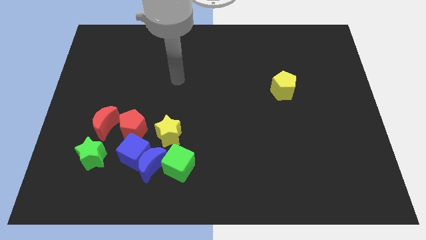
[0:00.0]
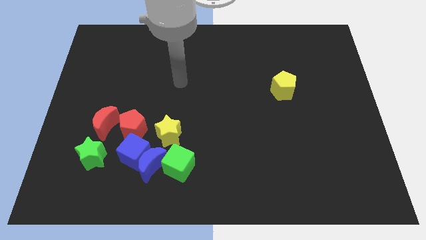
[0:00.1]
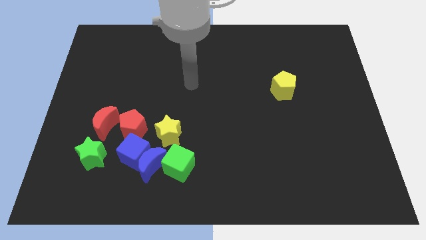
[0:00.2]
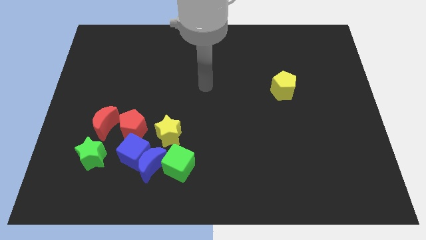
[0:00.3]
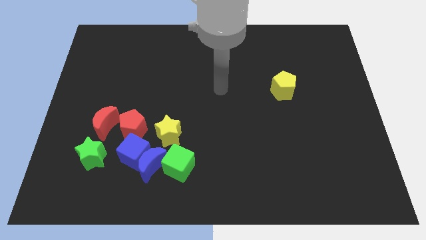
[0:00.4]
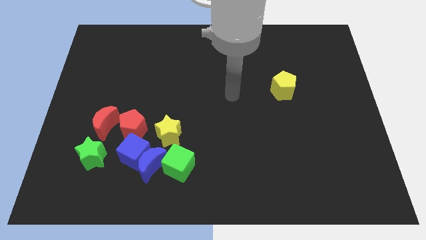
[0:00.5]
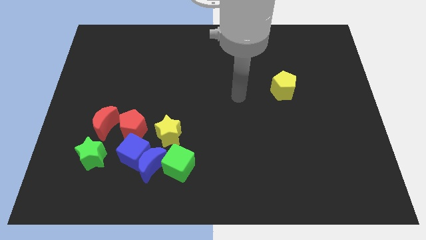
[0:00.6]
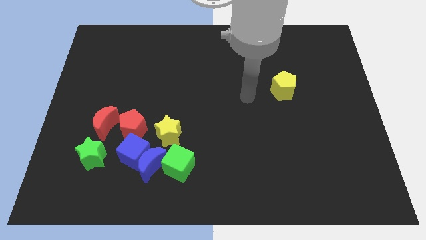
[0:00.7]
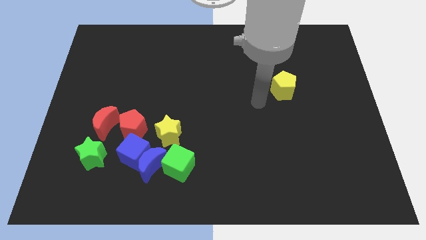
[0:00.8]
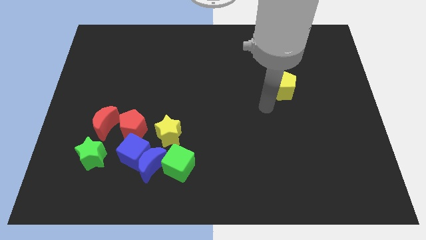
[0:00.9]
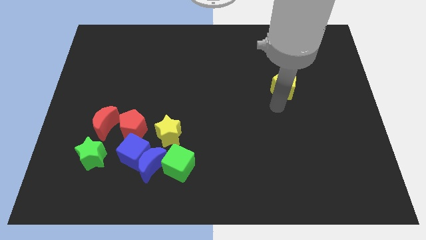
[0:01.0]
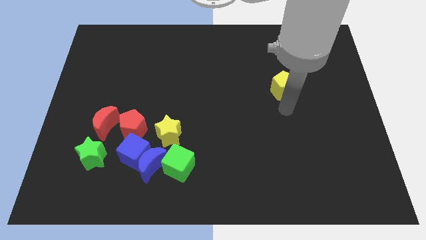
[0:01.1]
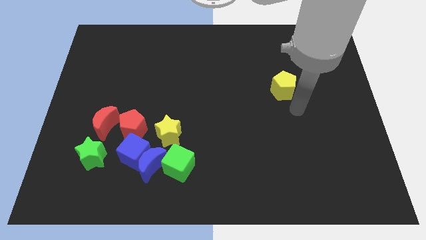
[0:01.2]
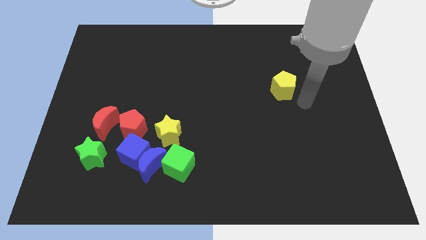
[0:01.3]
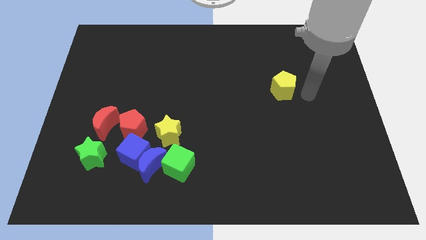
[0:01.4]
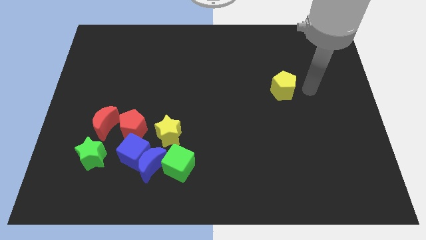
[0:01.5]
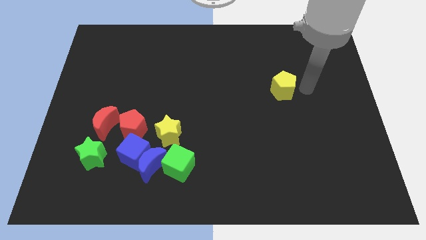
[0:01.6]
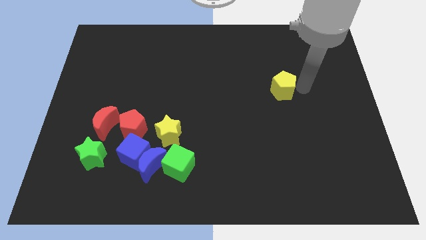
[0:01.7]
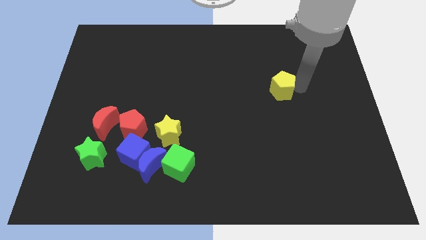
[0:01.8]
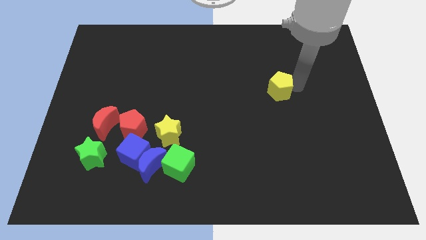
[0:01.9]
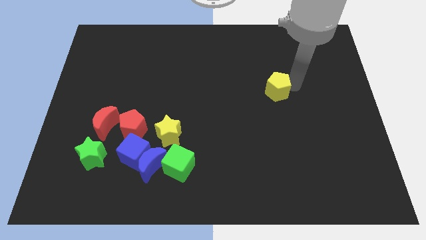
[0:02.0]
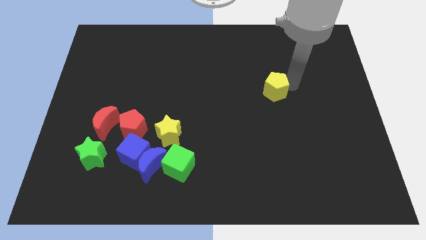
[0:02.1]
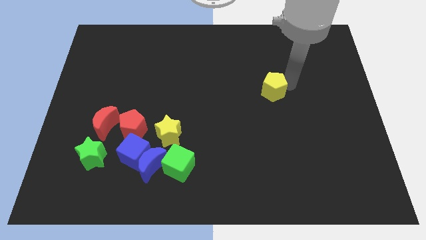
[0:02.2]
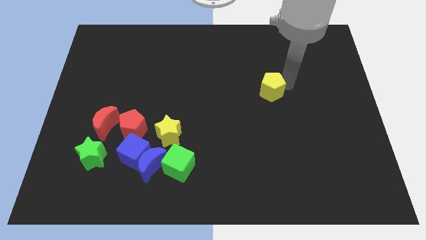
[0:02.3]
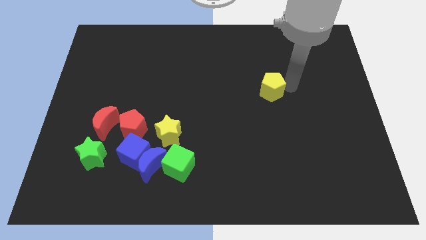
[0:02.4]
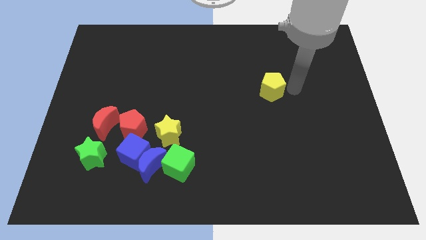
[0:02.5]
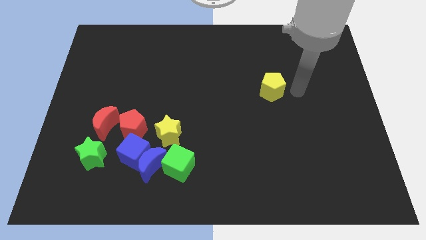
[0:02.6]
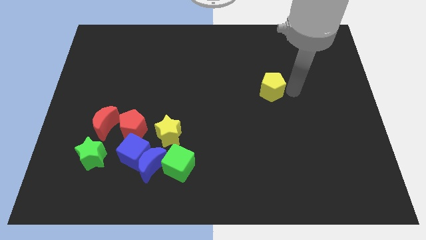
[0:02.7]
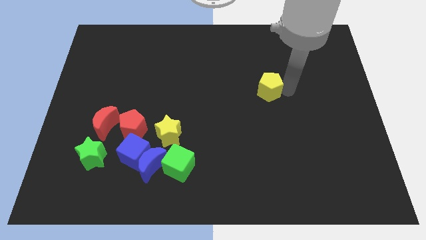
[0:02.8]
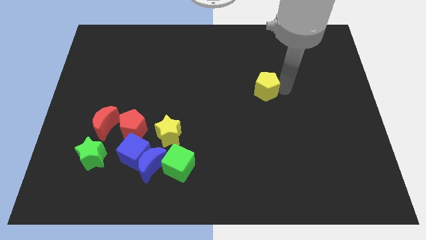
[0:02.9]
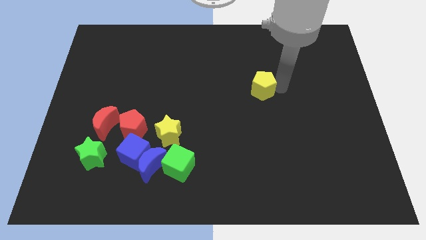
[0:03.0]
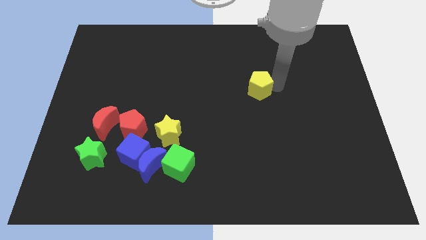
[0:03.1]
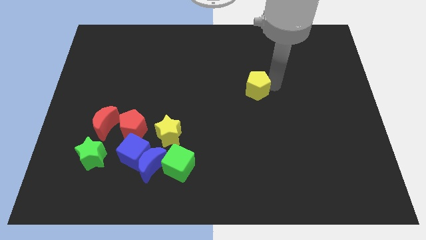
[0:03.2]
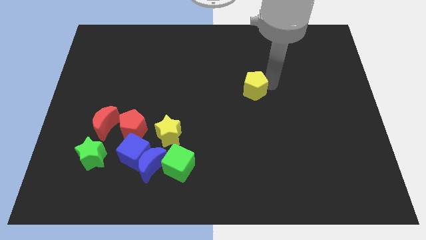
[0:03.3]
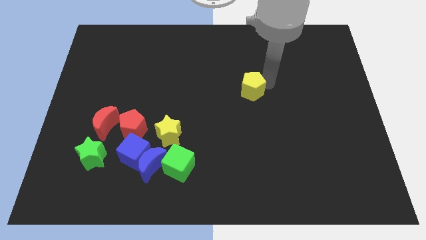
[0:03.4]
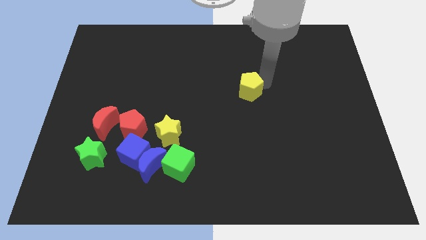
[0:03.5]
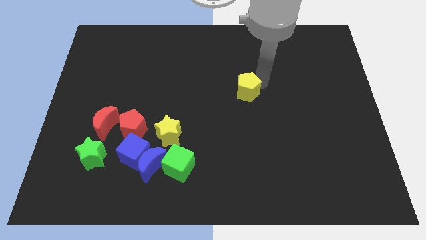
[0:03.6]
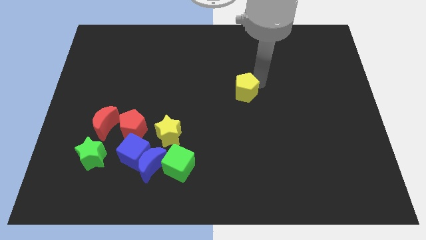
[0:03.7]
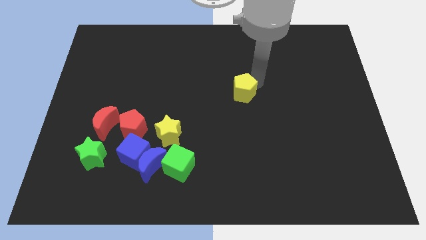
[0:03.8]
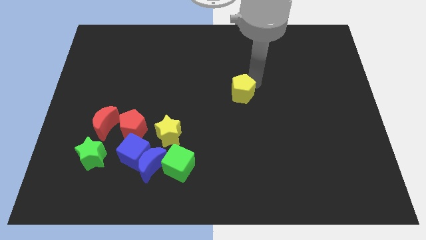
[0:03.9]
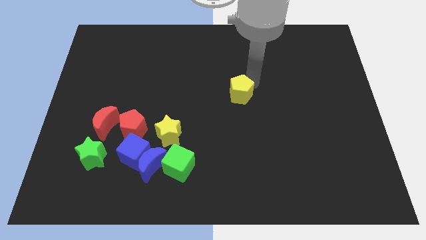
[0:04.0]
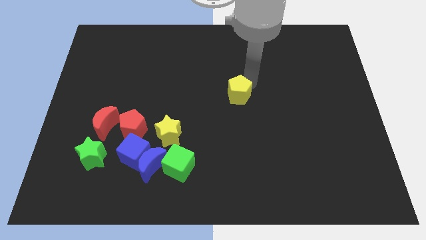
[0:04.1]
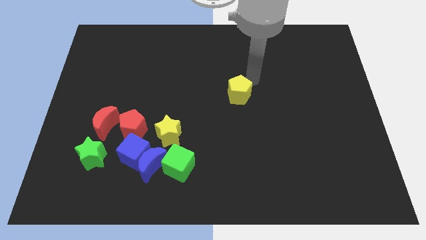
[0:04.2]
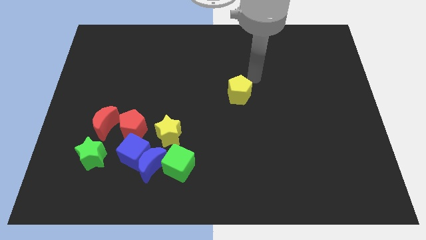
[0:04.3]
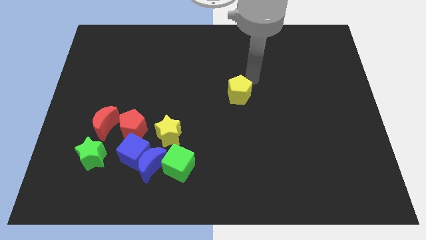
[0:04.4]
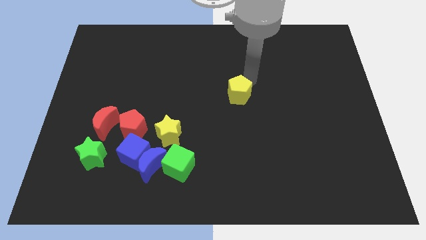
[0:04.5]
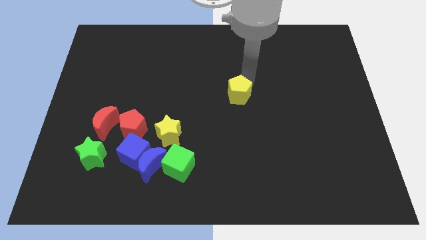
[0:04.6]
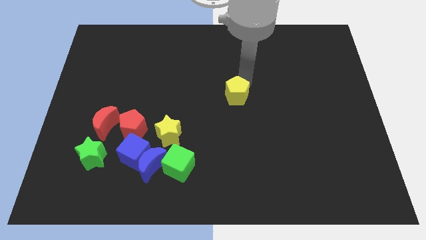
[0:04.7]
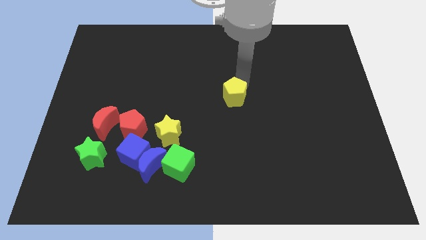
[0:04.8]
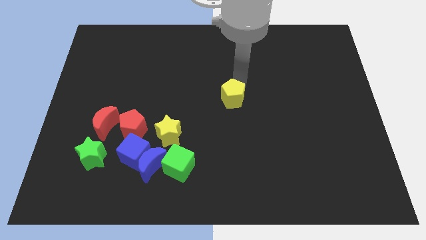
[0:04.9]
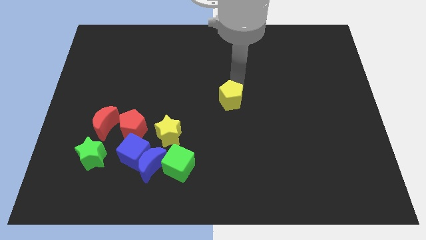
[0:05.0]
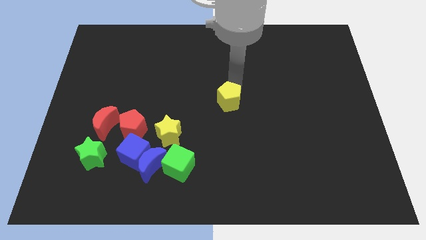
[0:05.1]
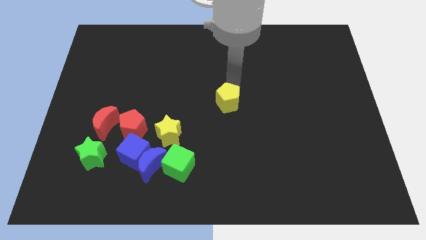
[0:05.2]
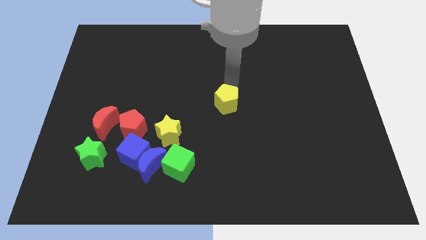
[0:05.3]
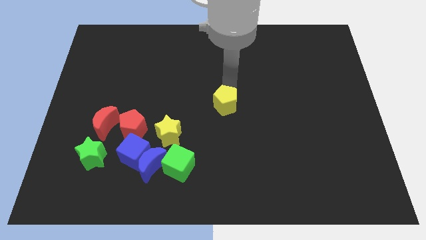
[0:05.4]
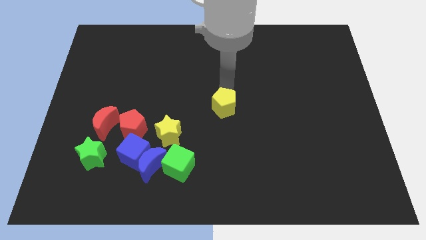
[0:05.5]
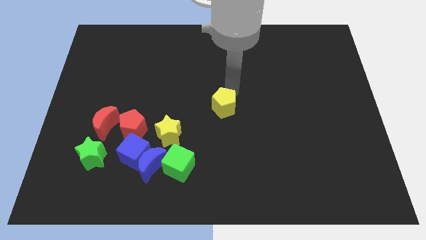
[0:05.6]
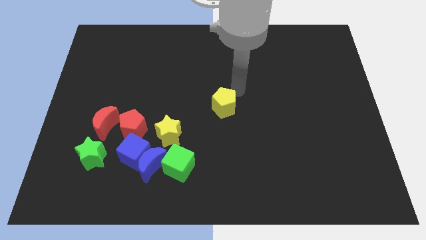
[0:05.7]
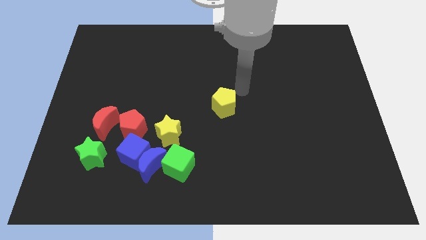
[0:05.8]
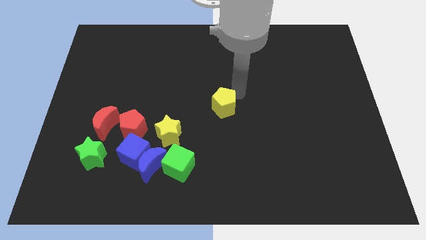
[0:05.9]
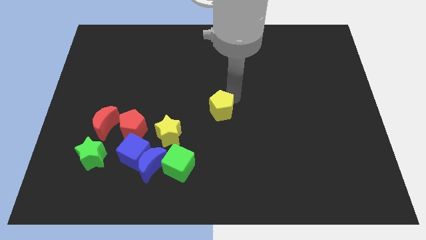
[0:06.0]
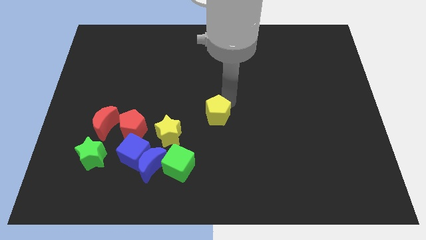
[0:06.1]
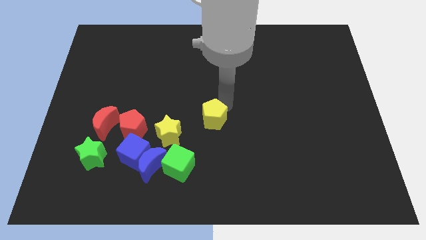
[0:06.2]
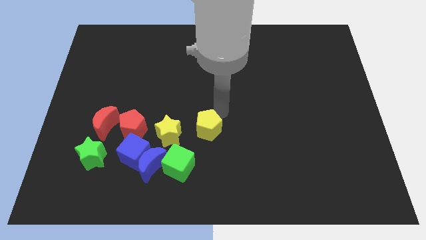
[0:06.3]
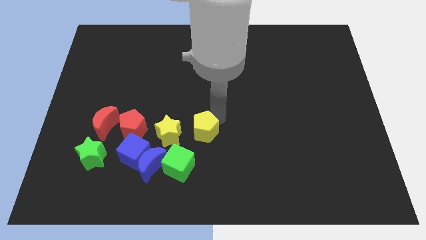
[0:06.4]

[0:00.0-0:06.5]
slide the yellow pentagon right of the red pentagon

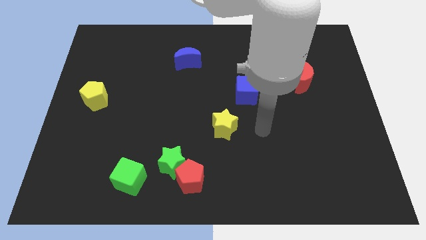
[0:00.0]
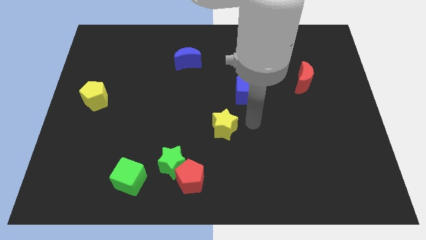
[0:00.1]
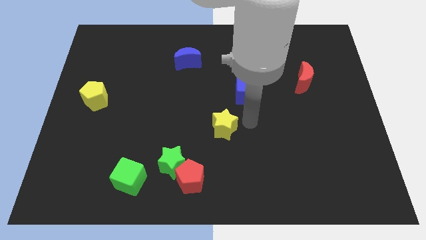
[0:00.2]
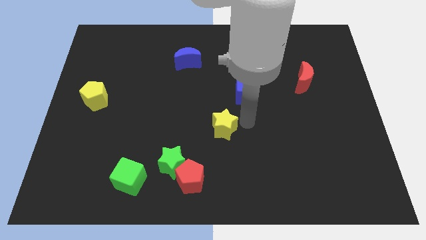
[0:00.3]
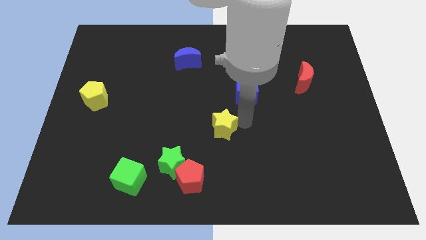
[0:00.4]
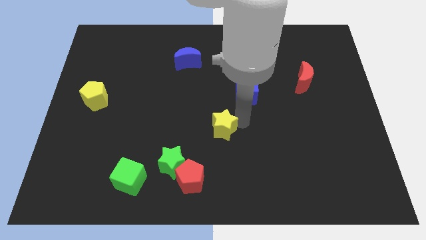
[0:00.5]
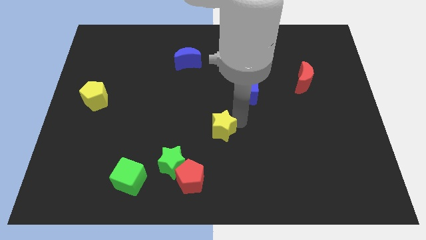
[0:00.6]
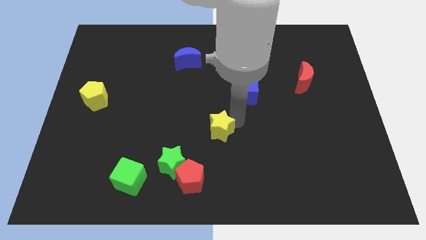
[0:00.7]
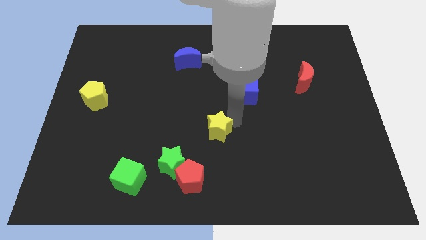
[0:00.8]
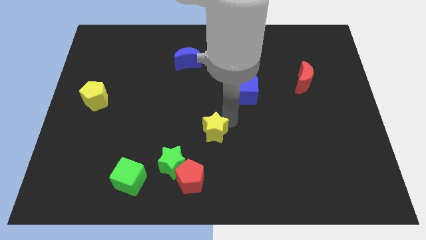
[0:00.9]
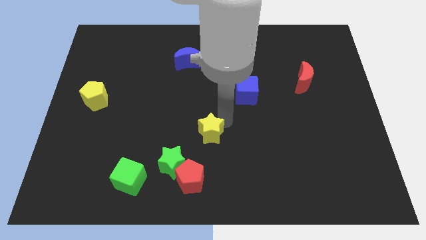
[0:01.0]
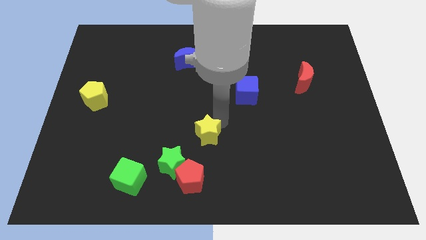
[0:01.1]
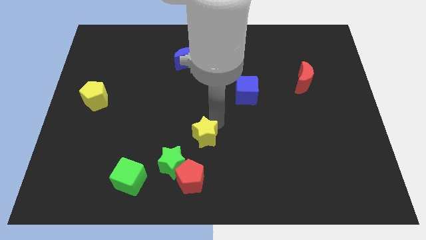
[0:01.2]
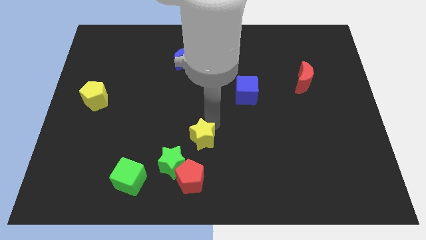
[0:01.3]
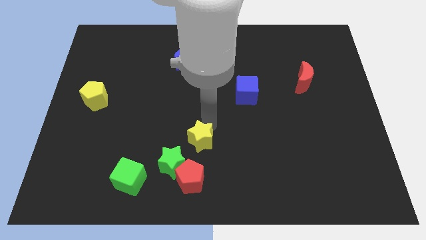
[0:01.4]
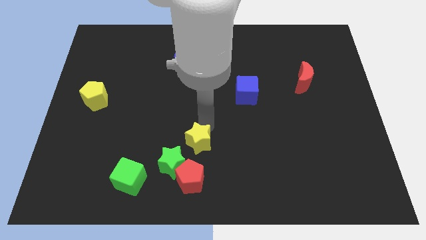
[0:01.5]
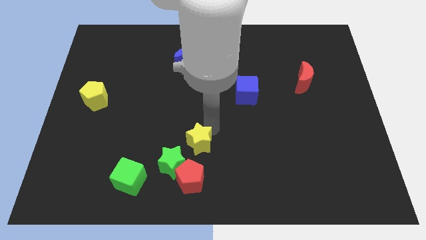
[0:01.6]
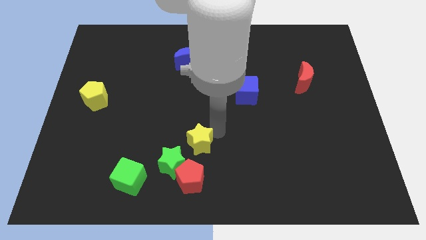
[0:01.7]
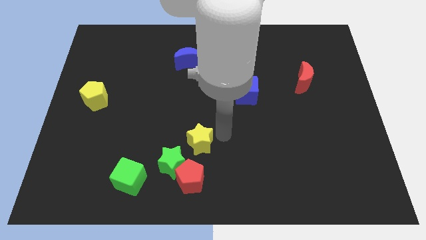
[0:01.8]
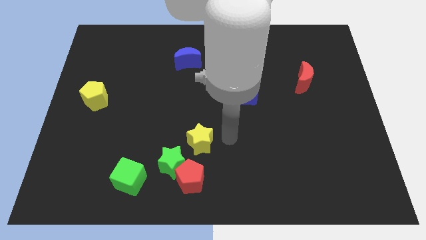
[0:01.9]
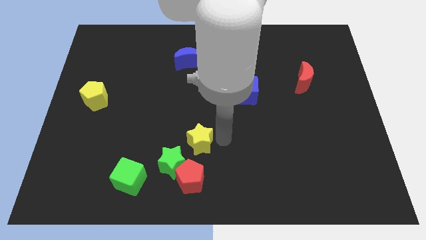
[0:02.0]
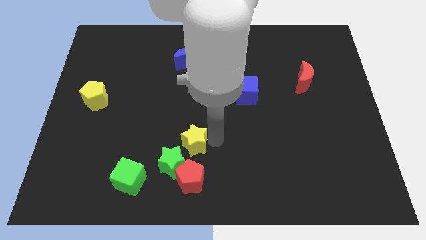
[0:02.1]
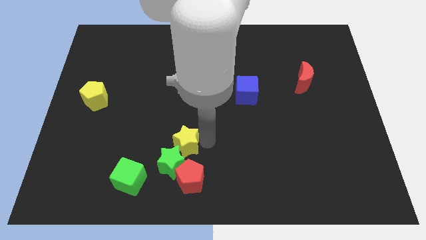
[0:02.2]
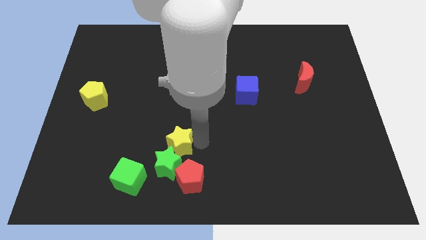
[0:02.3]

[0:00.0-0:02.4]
slide the yellow star to the top right side of the green cube
